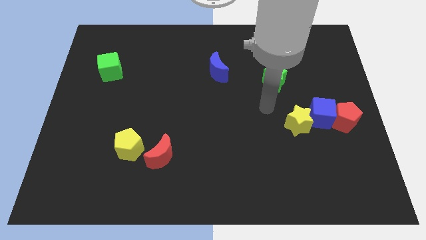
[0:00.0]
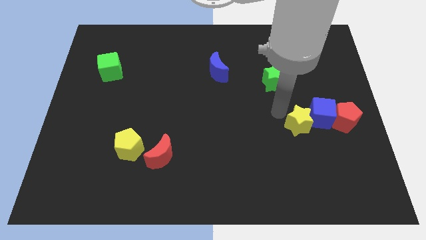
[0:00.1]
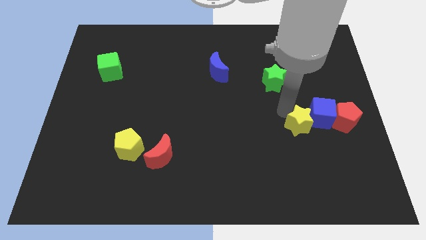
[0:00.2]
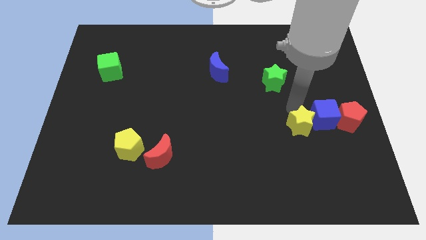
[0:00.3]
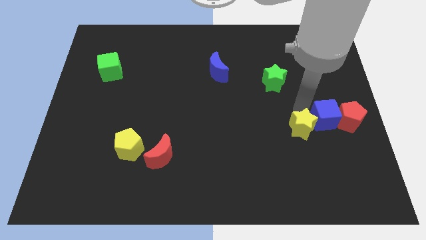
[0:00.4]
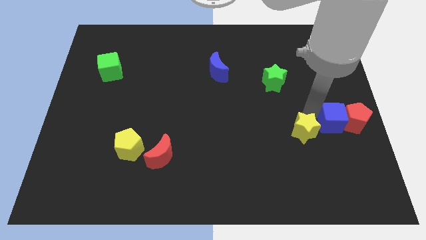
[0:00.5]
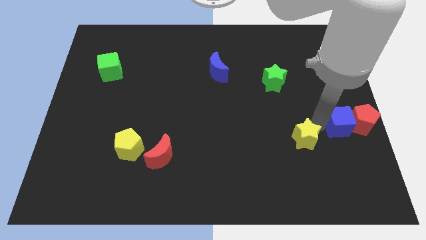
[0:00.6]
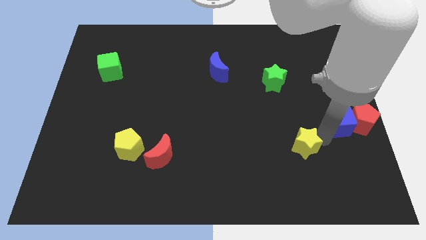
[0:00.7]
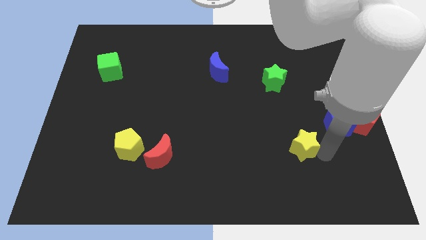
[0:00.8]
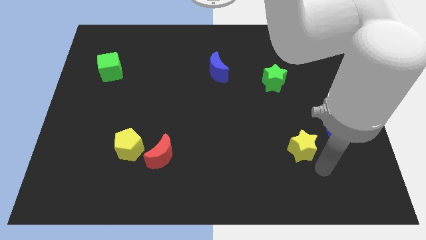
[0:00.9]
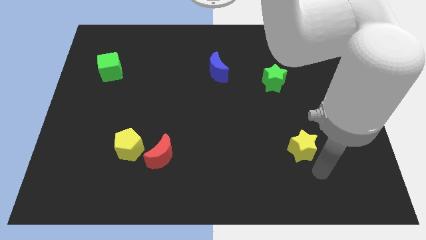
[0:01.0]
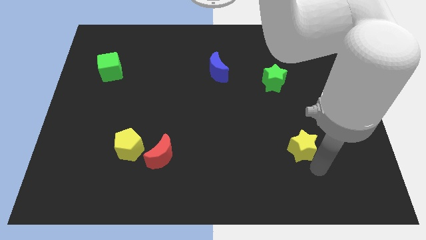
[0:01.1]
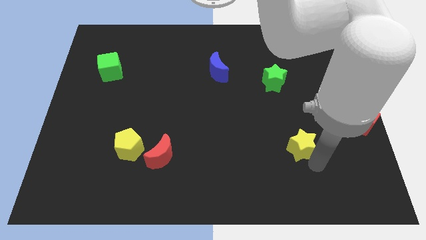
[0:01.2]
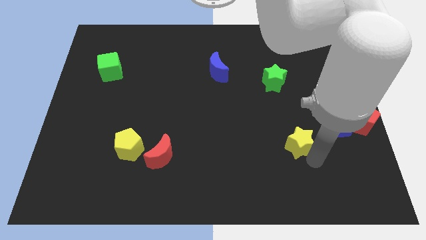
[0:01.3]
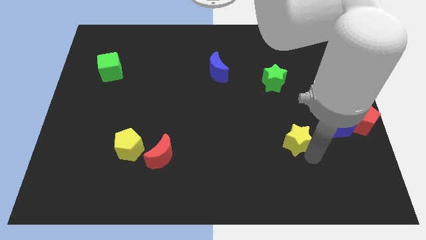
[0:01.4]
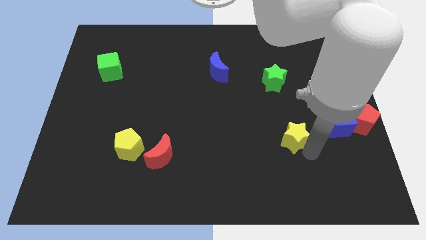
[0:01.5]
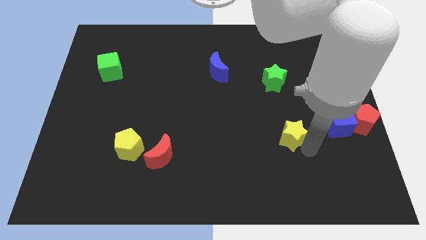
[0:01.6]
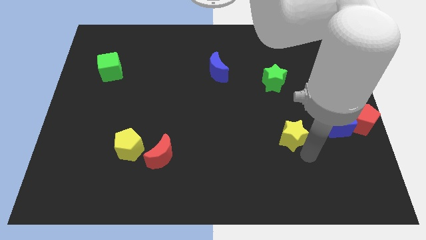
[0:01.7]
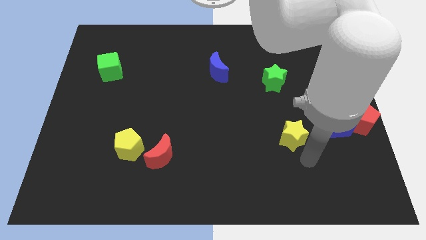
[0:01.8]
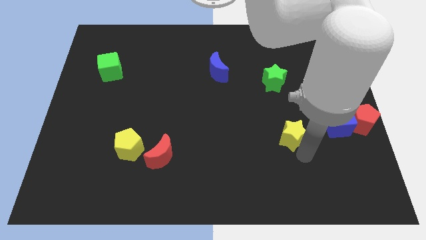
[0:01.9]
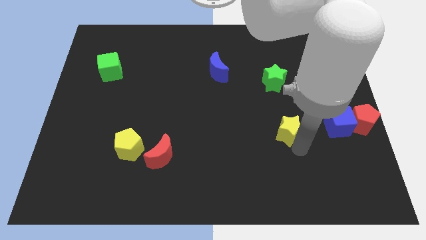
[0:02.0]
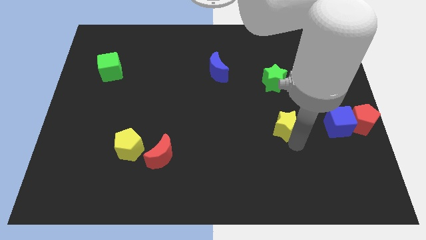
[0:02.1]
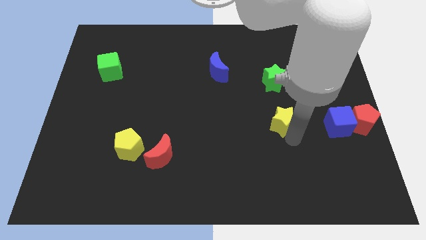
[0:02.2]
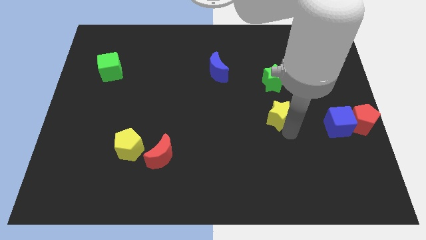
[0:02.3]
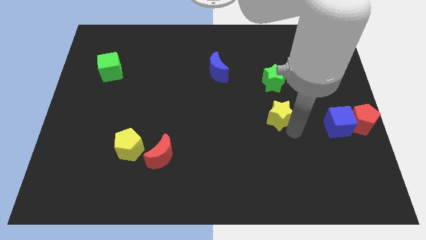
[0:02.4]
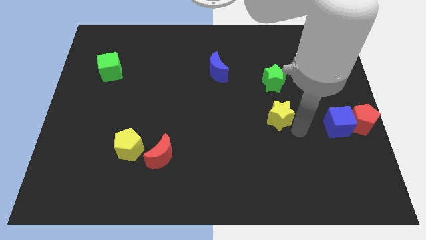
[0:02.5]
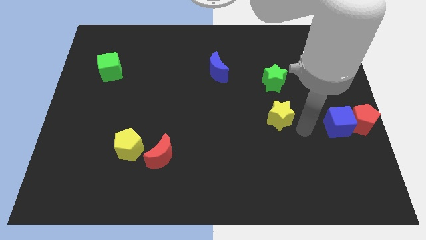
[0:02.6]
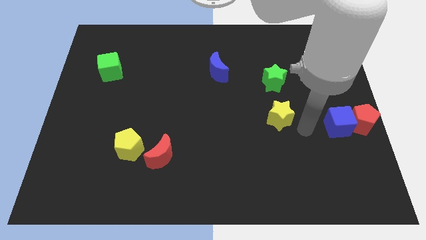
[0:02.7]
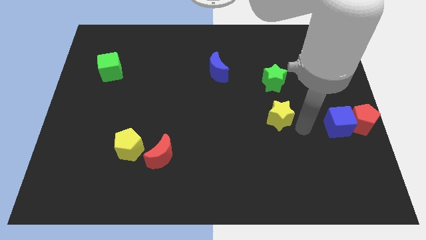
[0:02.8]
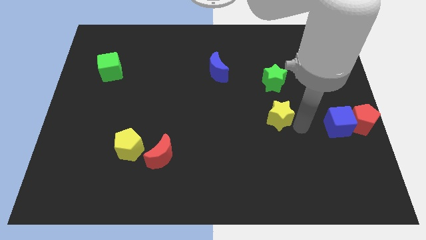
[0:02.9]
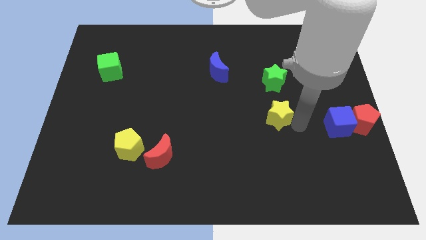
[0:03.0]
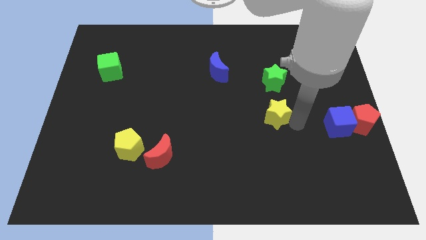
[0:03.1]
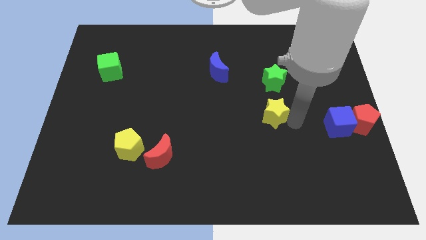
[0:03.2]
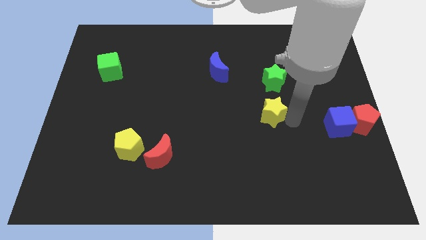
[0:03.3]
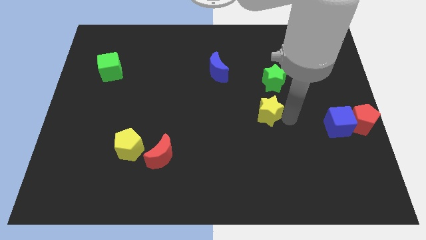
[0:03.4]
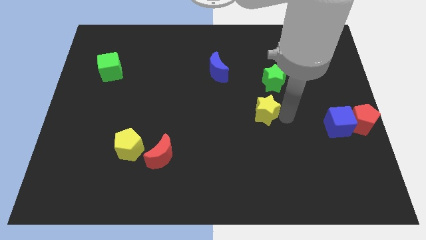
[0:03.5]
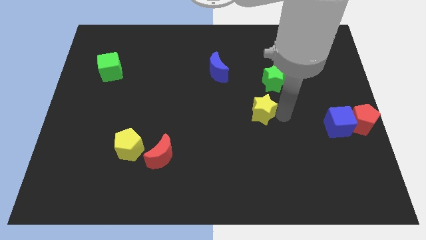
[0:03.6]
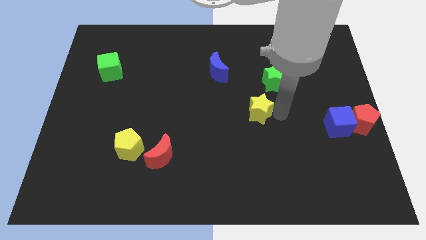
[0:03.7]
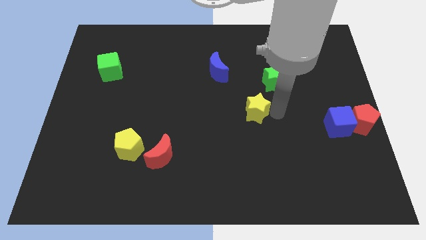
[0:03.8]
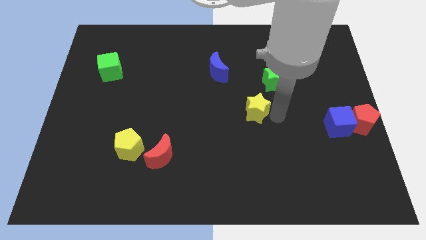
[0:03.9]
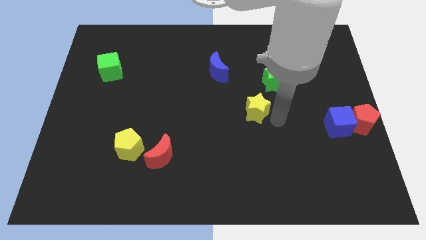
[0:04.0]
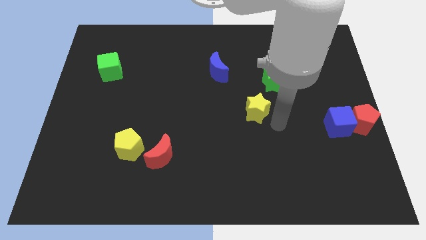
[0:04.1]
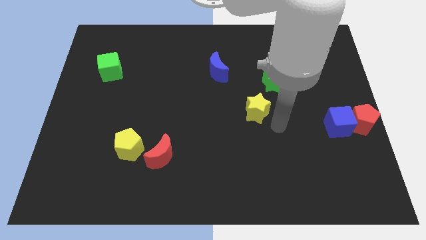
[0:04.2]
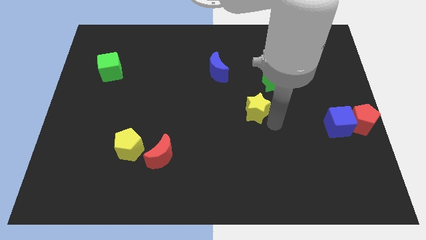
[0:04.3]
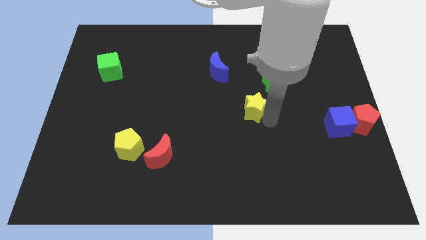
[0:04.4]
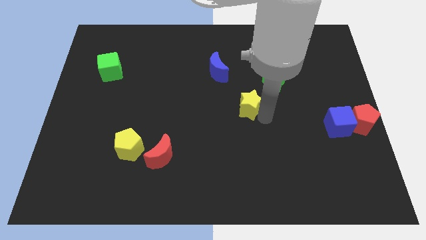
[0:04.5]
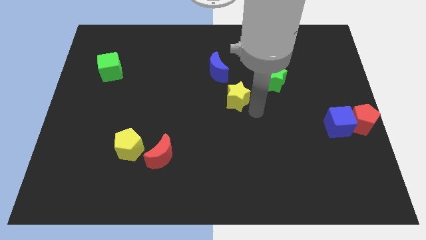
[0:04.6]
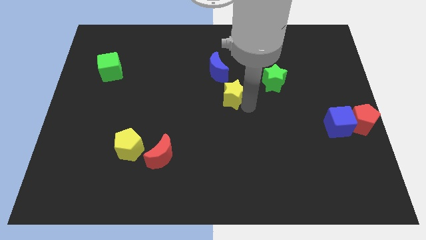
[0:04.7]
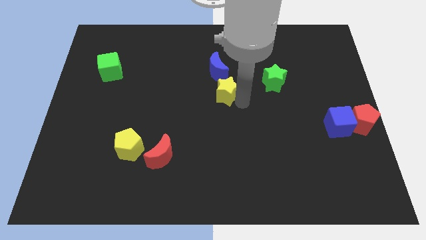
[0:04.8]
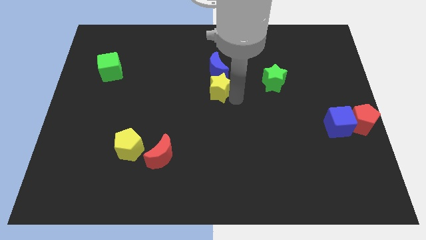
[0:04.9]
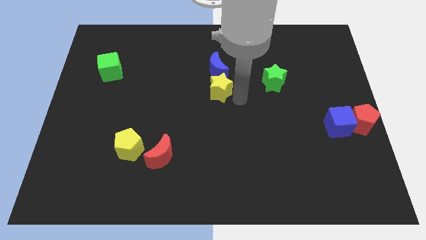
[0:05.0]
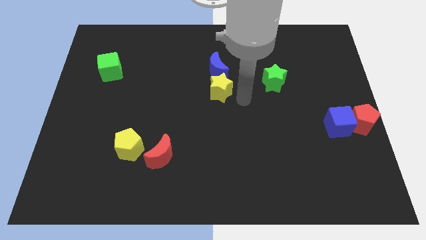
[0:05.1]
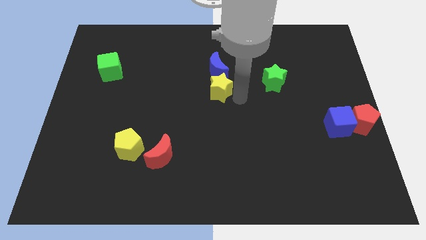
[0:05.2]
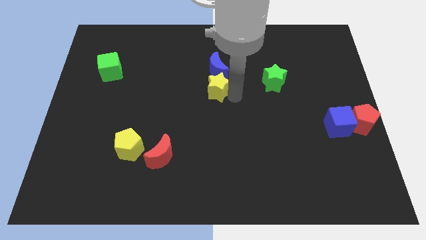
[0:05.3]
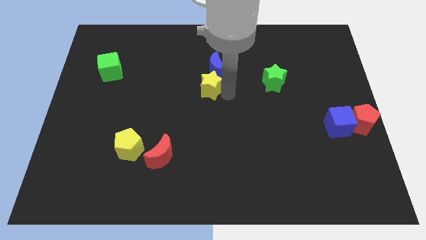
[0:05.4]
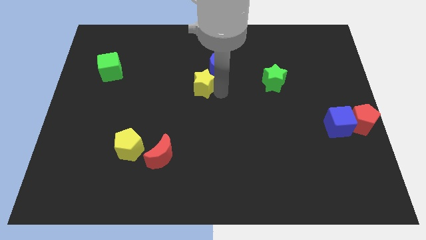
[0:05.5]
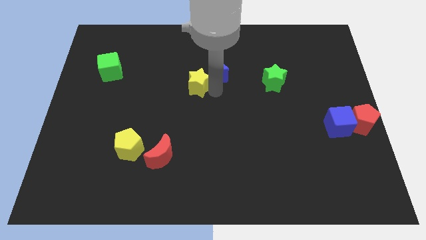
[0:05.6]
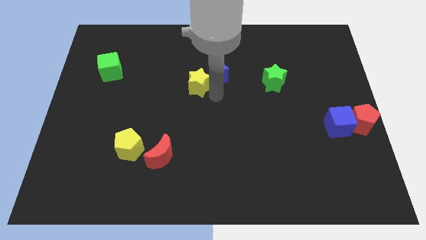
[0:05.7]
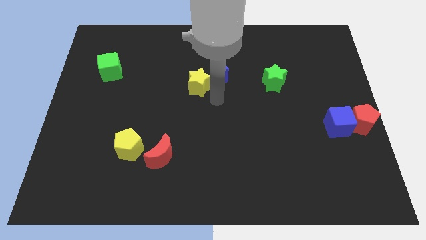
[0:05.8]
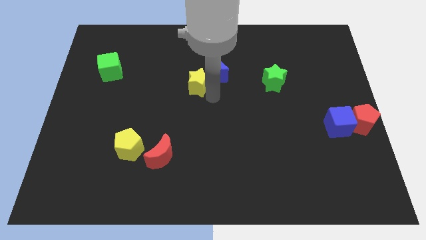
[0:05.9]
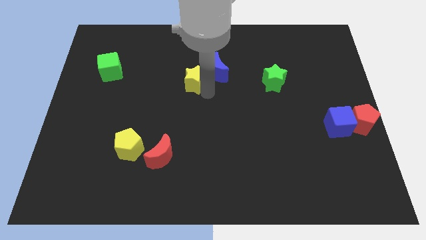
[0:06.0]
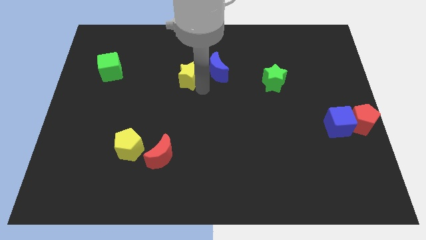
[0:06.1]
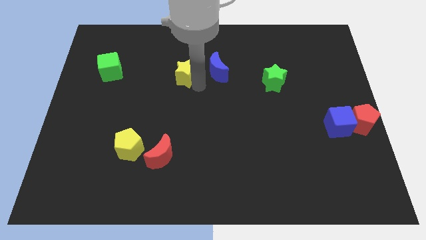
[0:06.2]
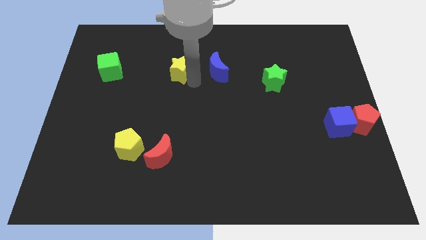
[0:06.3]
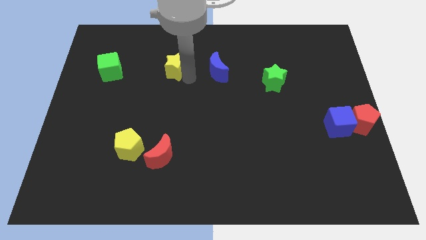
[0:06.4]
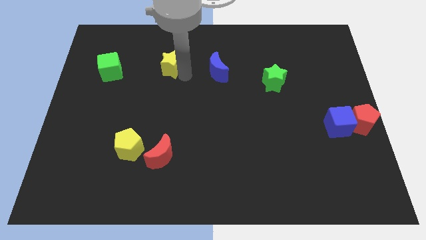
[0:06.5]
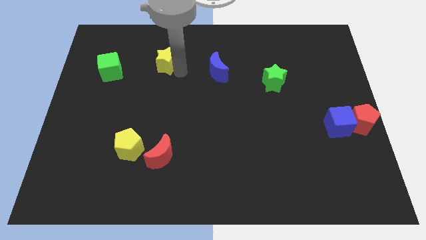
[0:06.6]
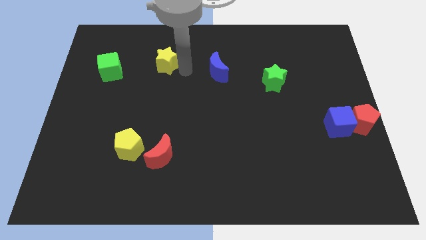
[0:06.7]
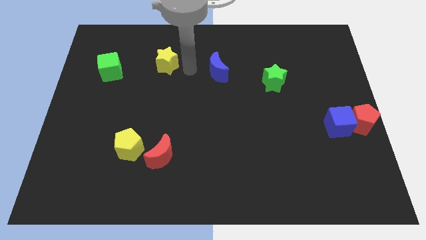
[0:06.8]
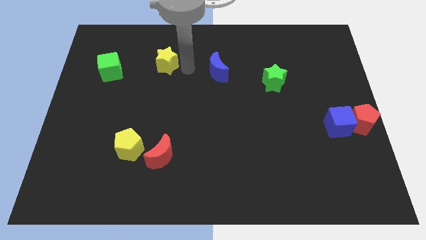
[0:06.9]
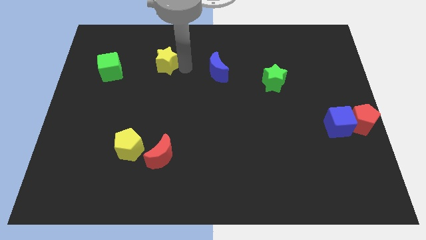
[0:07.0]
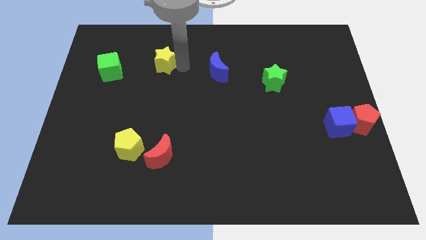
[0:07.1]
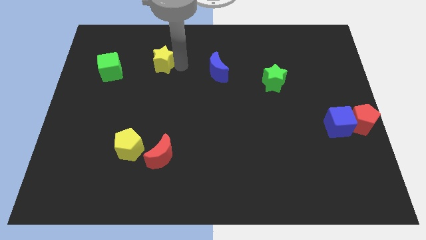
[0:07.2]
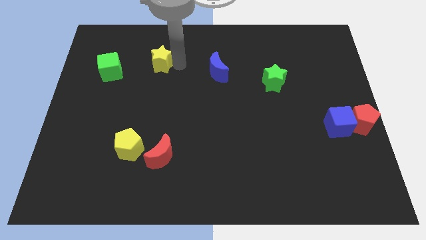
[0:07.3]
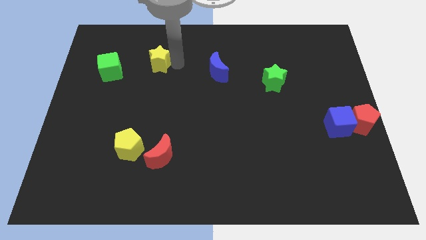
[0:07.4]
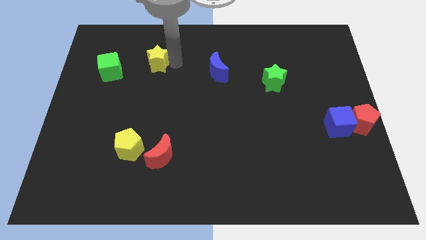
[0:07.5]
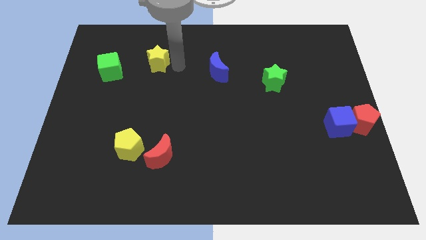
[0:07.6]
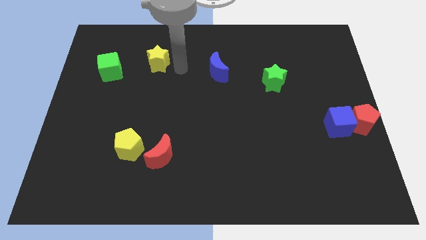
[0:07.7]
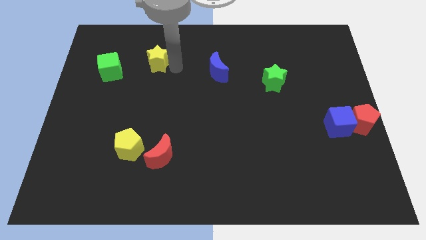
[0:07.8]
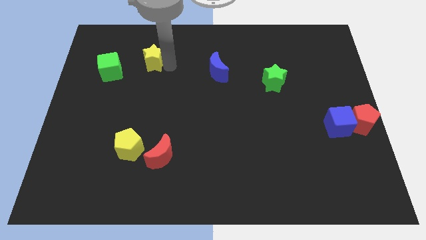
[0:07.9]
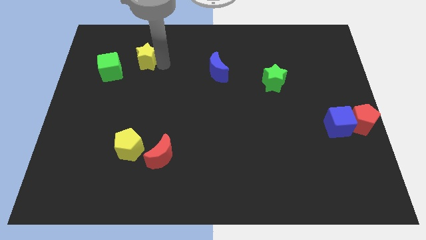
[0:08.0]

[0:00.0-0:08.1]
put the yellow star to the top right of the green cube
